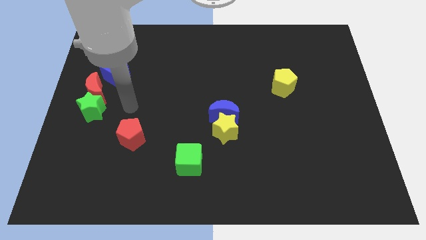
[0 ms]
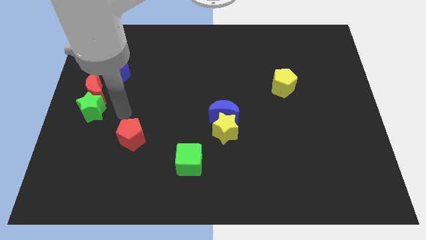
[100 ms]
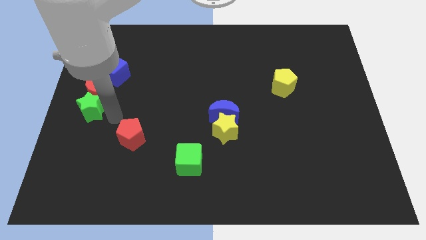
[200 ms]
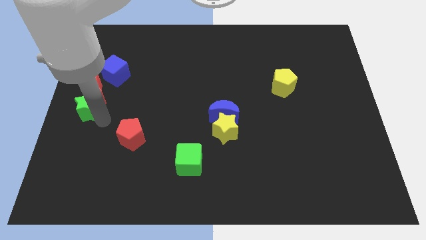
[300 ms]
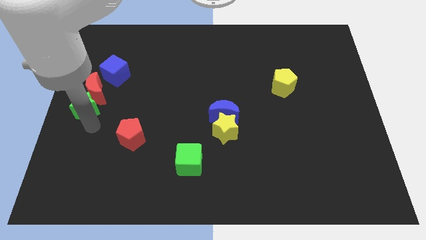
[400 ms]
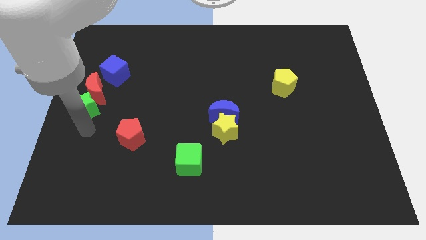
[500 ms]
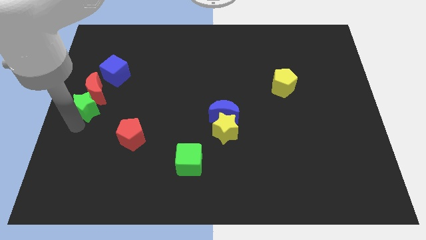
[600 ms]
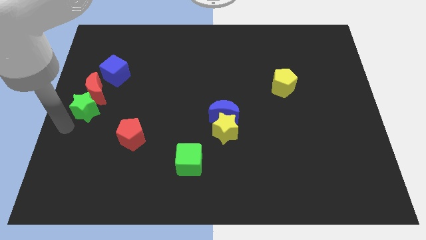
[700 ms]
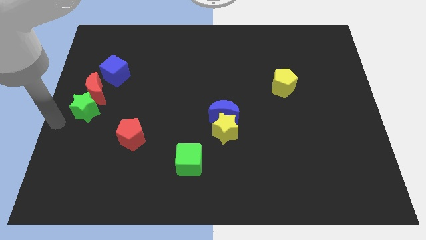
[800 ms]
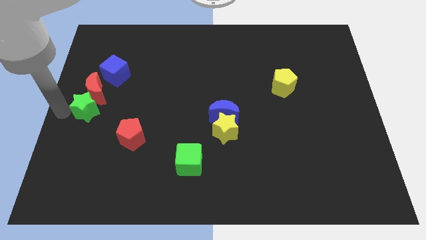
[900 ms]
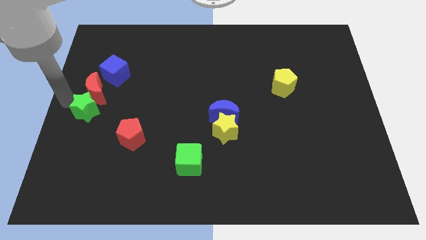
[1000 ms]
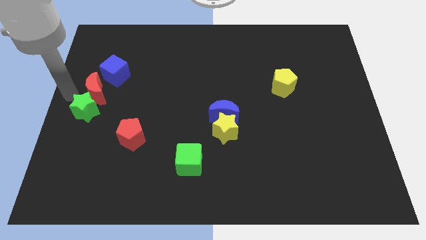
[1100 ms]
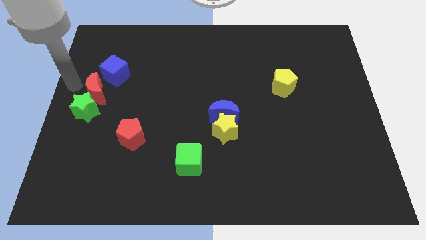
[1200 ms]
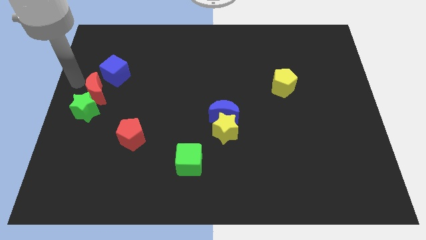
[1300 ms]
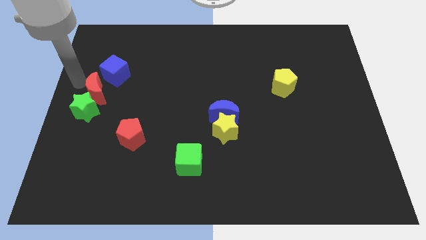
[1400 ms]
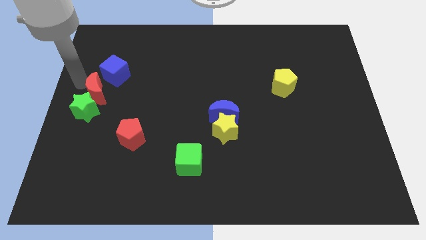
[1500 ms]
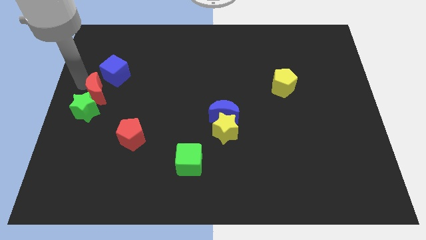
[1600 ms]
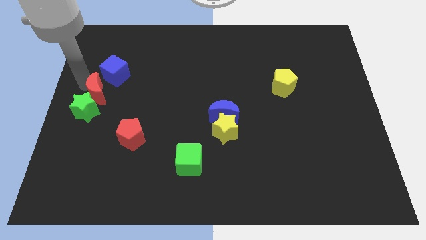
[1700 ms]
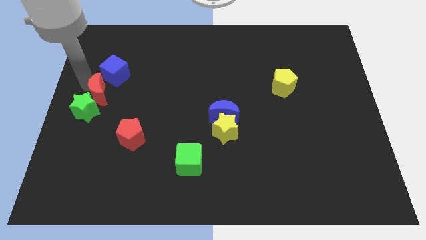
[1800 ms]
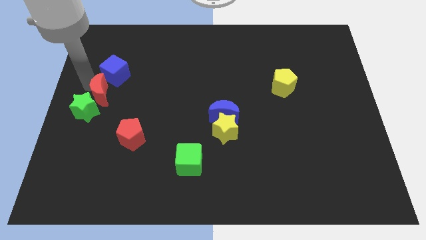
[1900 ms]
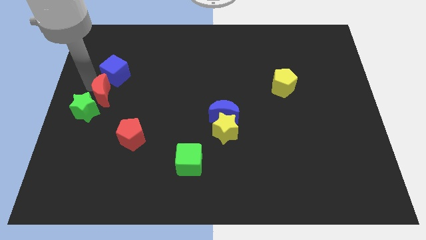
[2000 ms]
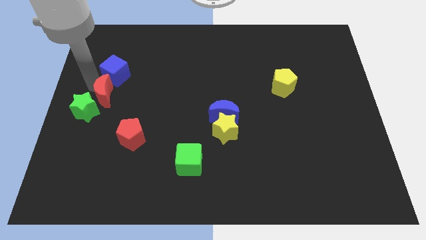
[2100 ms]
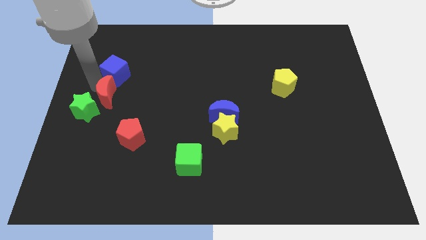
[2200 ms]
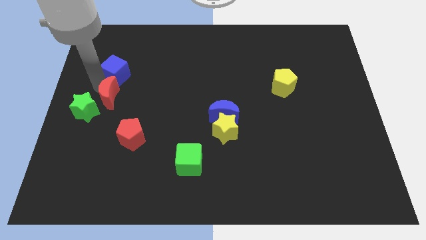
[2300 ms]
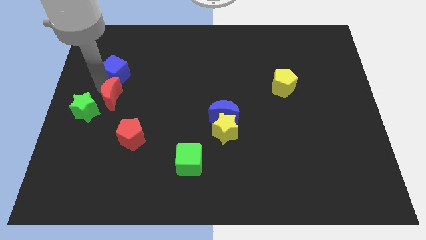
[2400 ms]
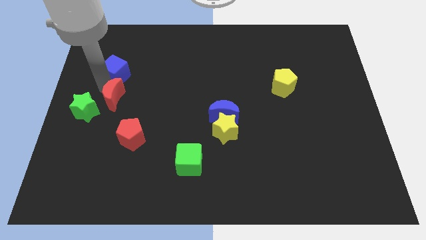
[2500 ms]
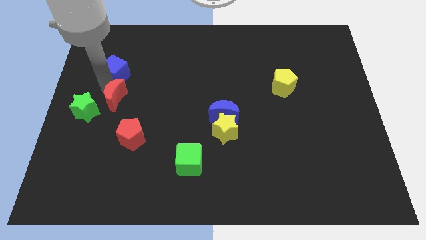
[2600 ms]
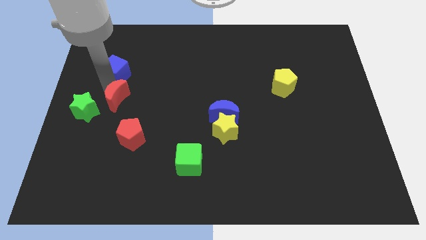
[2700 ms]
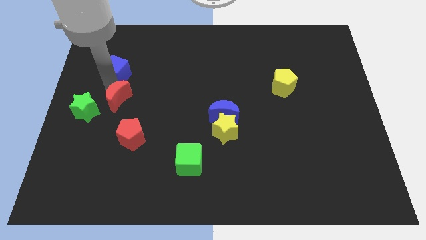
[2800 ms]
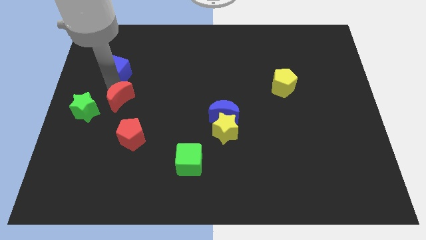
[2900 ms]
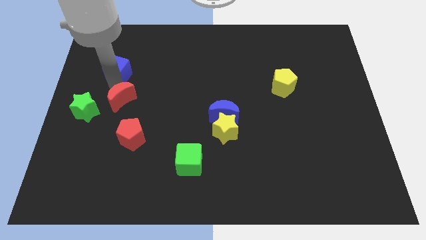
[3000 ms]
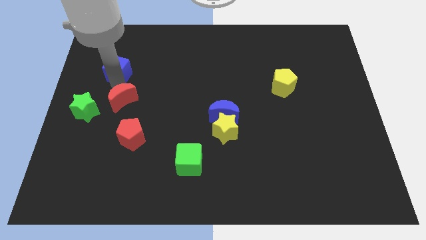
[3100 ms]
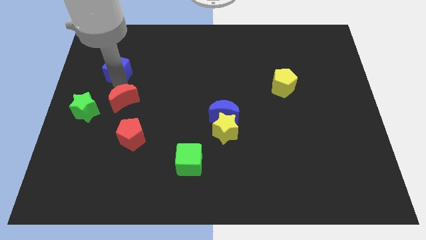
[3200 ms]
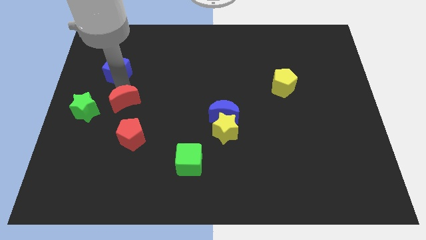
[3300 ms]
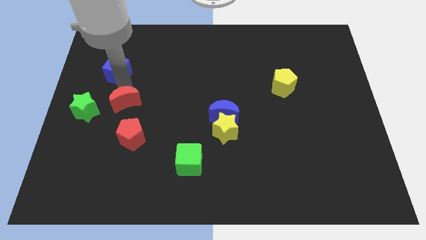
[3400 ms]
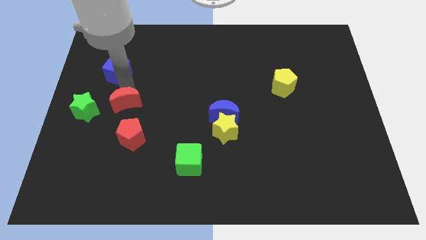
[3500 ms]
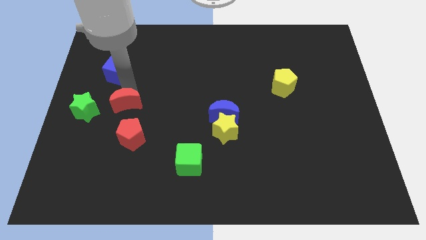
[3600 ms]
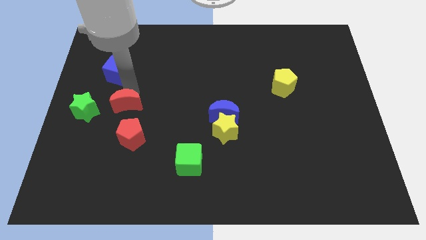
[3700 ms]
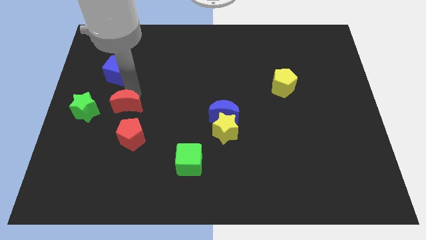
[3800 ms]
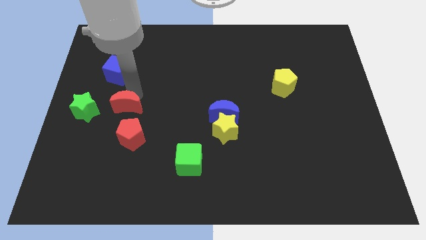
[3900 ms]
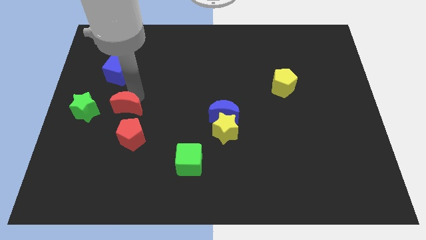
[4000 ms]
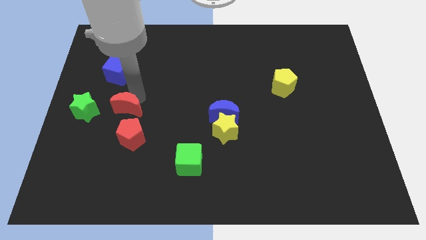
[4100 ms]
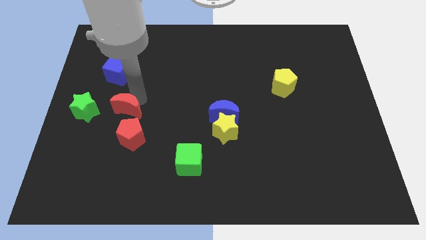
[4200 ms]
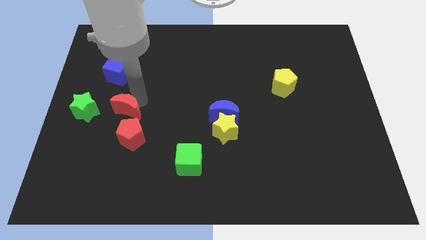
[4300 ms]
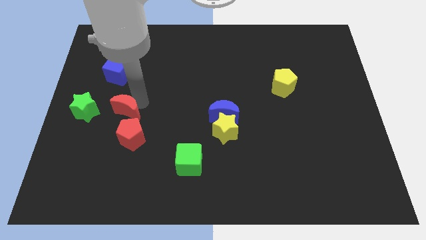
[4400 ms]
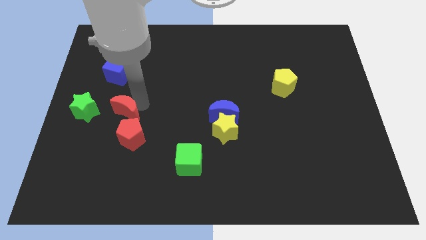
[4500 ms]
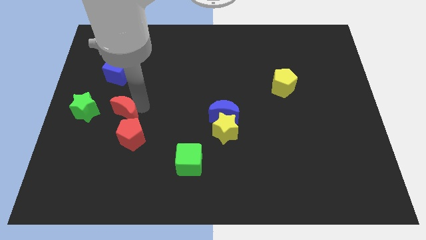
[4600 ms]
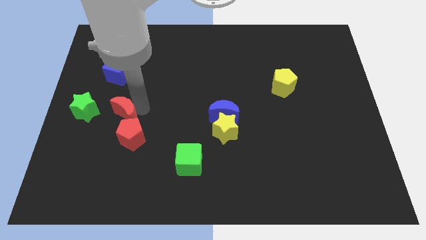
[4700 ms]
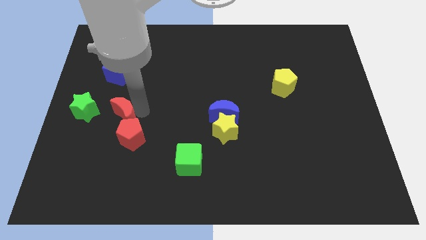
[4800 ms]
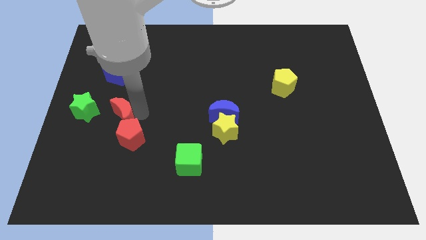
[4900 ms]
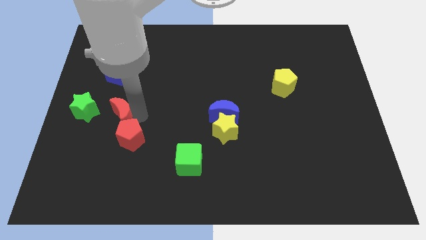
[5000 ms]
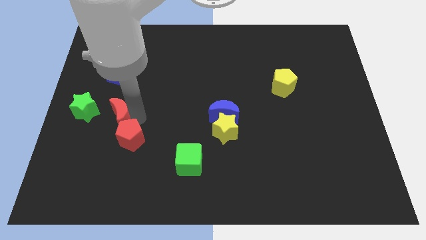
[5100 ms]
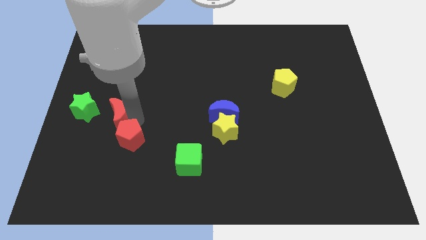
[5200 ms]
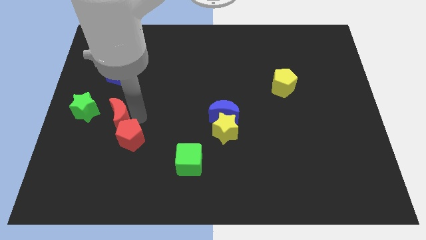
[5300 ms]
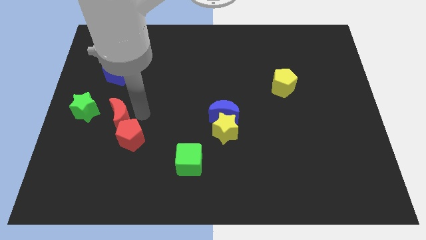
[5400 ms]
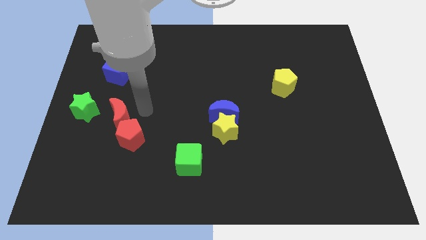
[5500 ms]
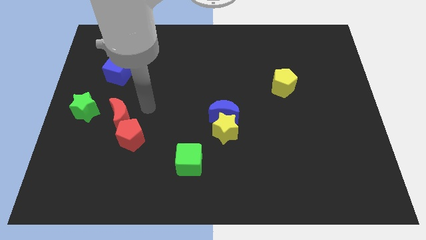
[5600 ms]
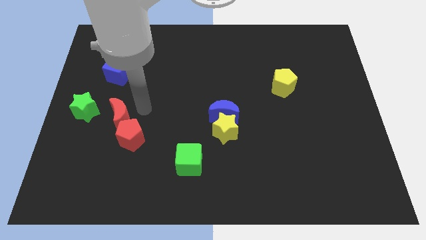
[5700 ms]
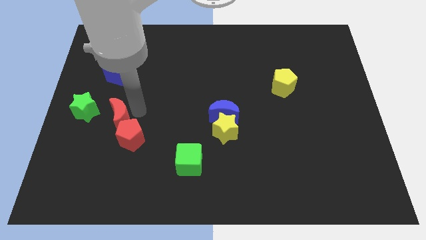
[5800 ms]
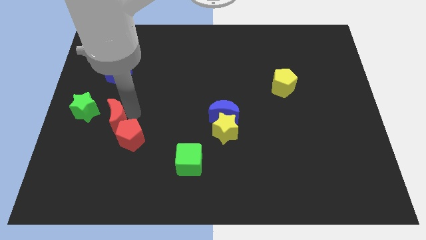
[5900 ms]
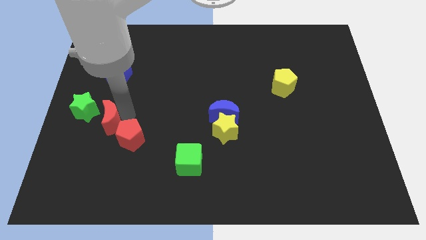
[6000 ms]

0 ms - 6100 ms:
slightly move the red moon downwards

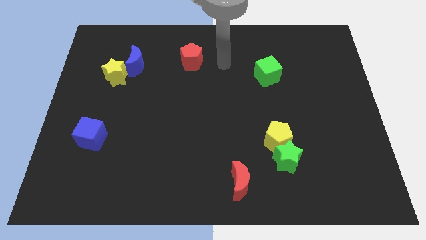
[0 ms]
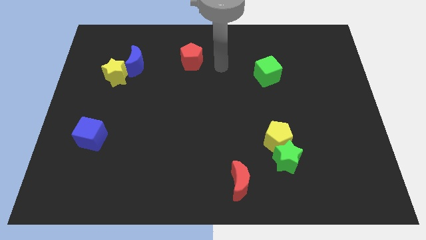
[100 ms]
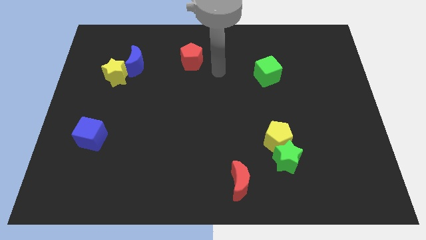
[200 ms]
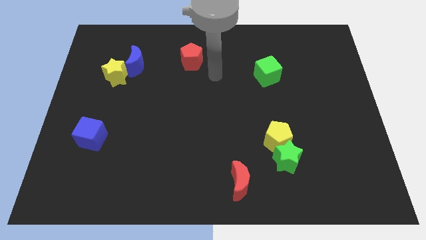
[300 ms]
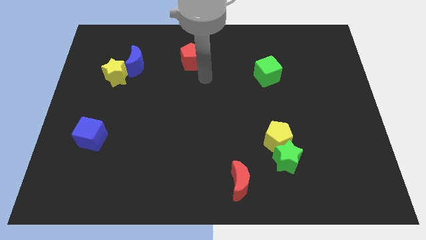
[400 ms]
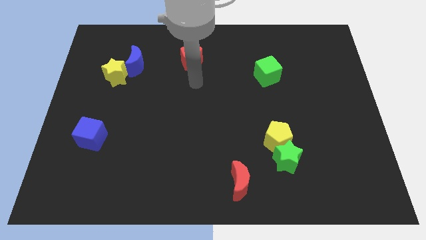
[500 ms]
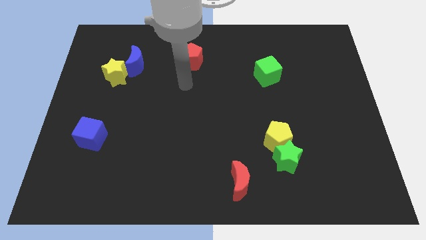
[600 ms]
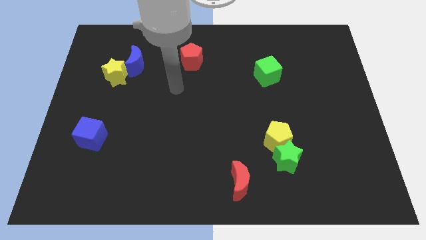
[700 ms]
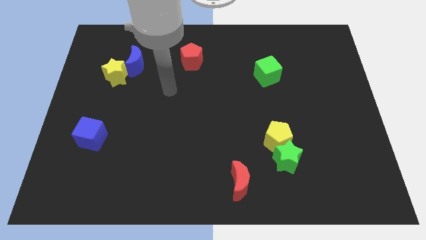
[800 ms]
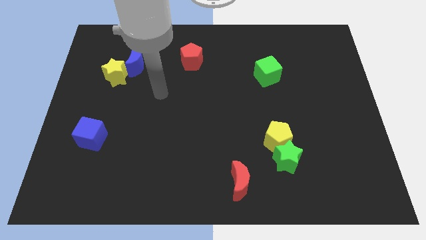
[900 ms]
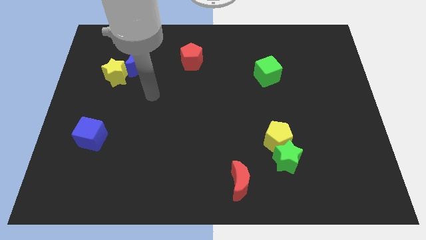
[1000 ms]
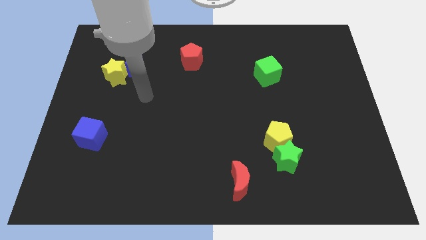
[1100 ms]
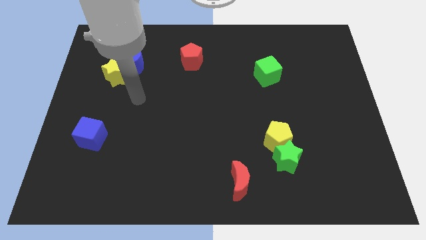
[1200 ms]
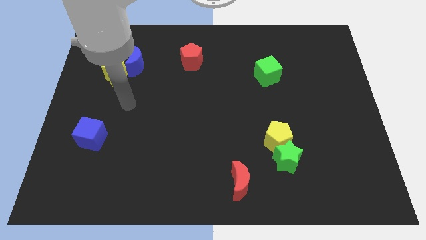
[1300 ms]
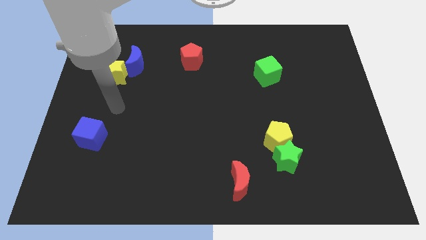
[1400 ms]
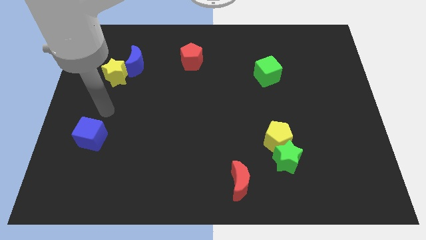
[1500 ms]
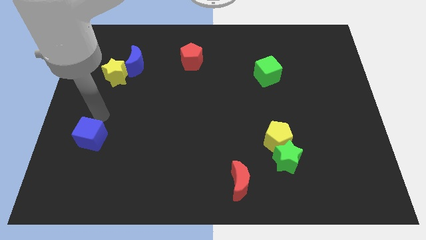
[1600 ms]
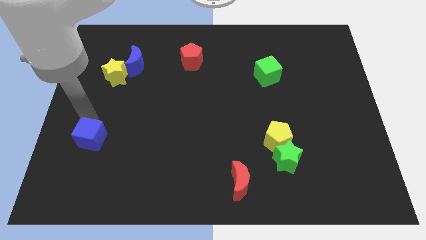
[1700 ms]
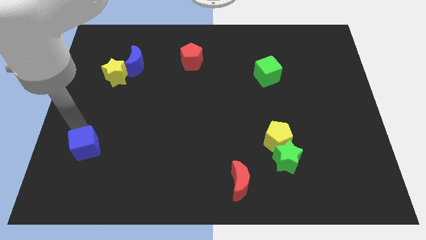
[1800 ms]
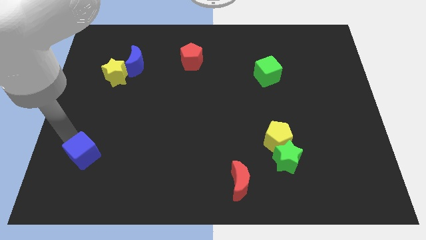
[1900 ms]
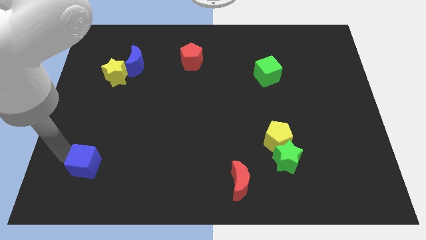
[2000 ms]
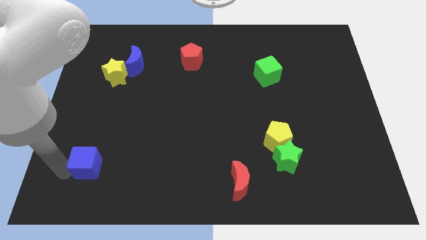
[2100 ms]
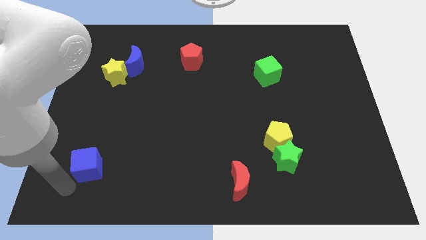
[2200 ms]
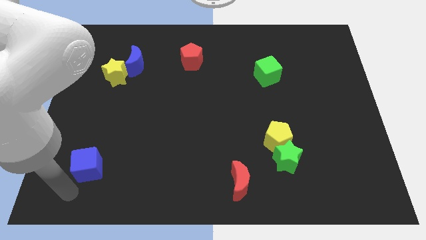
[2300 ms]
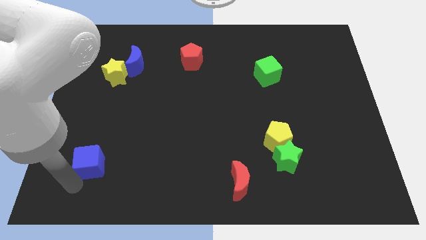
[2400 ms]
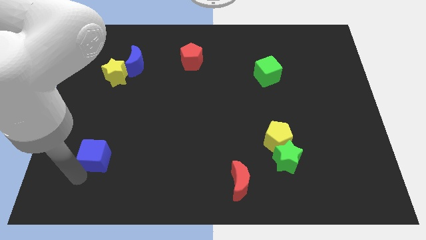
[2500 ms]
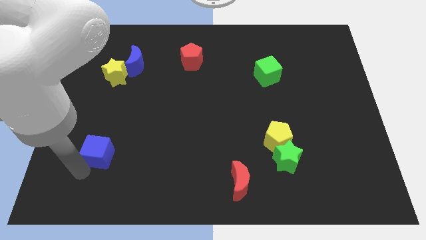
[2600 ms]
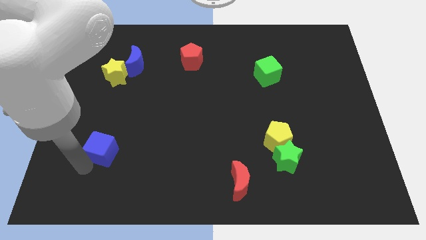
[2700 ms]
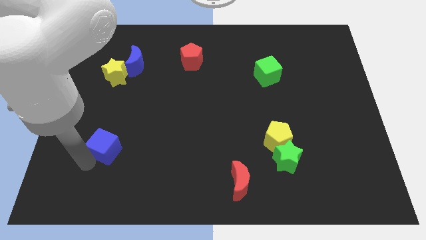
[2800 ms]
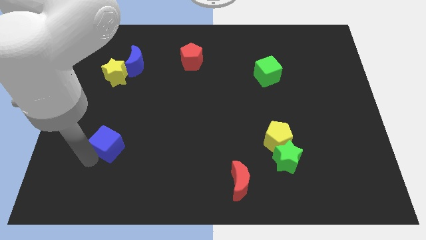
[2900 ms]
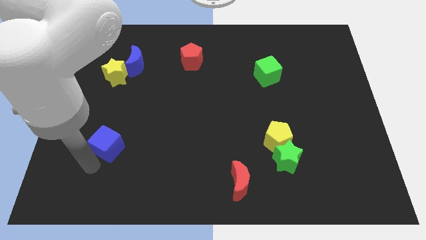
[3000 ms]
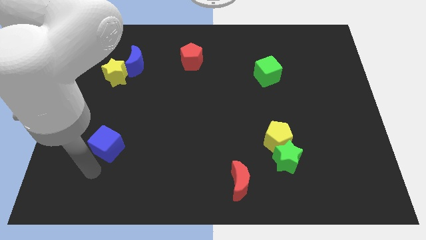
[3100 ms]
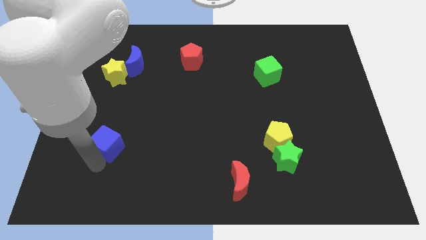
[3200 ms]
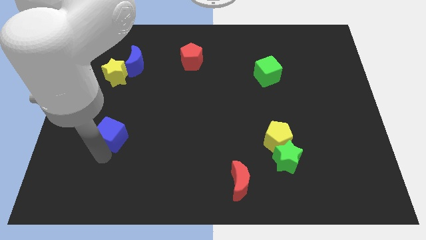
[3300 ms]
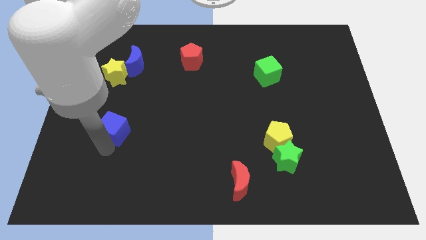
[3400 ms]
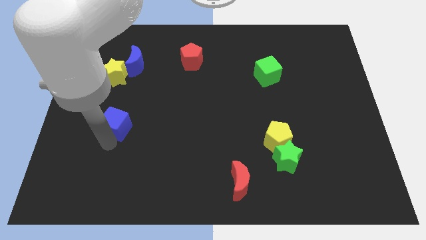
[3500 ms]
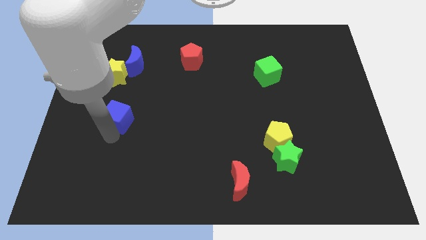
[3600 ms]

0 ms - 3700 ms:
slightly slide the blue cube diagonally up and to the right
